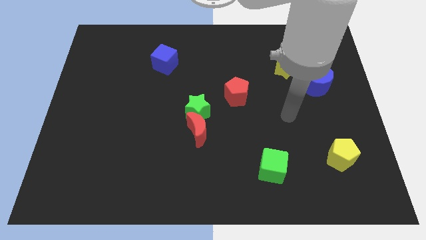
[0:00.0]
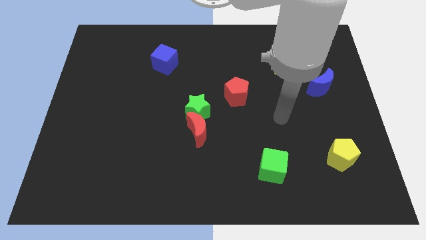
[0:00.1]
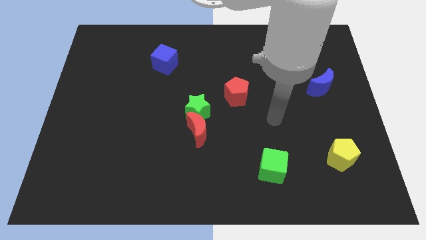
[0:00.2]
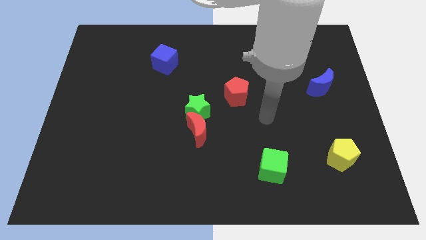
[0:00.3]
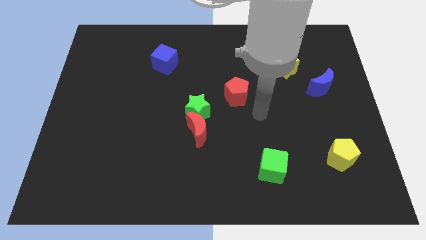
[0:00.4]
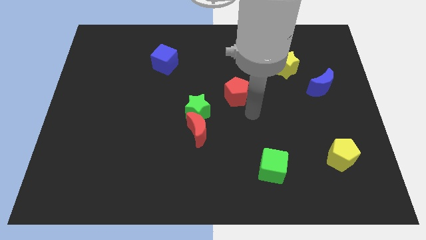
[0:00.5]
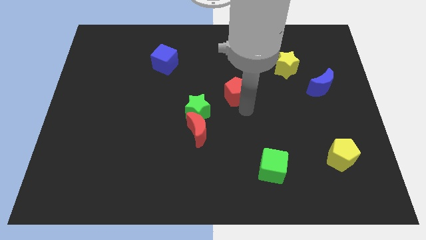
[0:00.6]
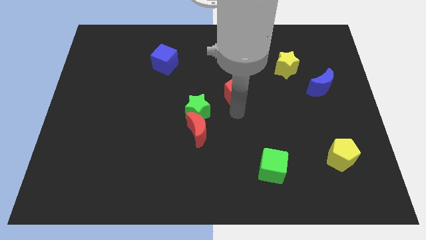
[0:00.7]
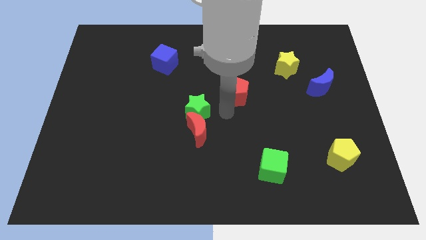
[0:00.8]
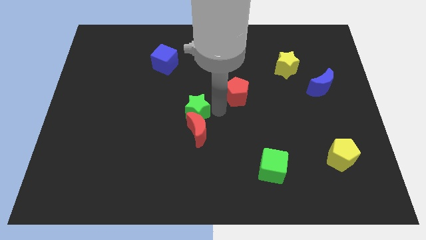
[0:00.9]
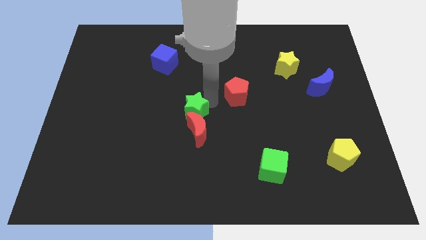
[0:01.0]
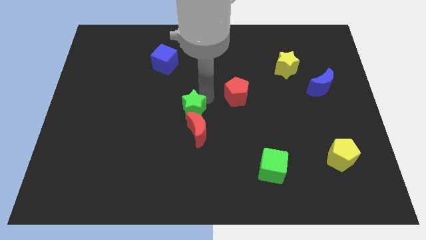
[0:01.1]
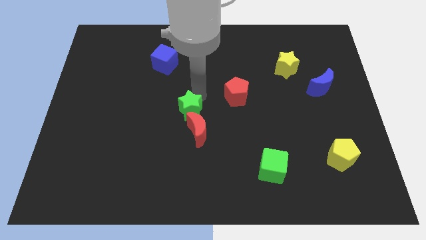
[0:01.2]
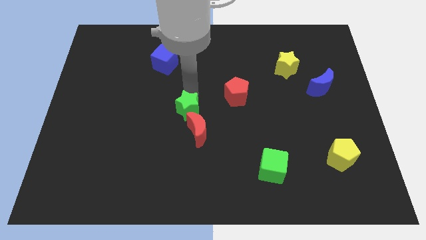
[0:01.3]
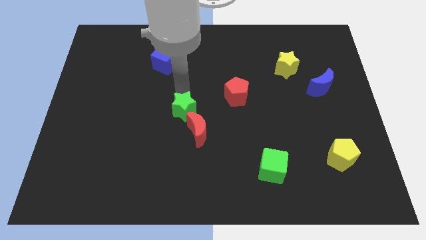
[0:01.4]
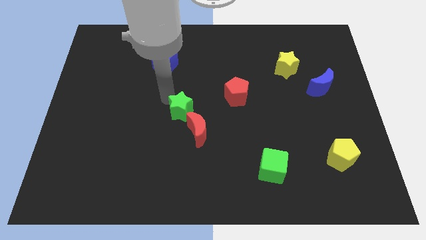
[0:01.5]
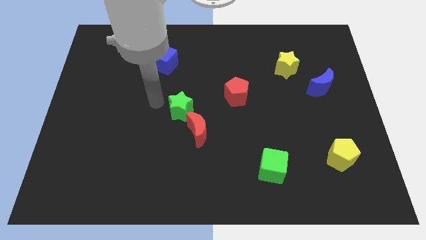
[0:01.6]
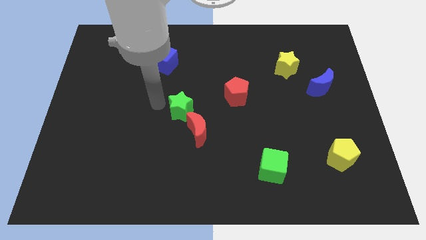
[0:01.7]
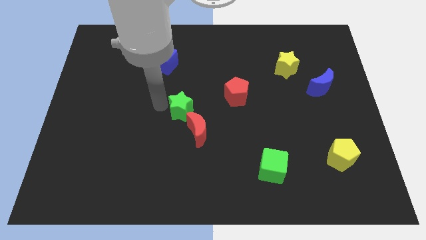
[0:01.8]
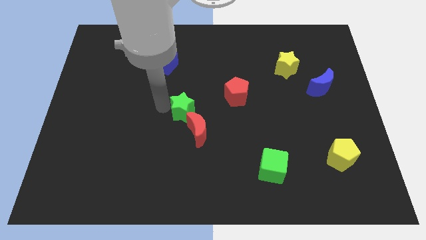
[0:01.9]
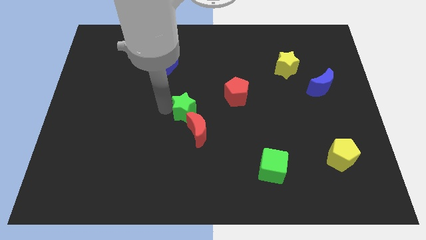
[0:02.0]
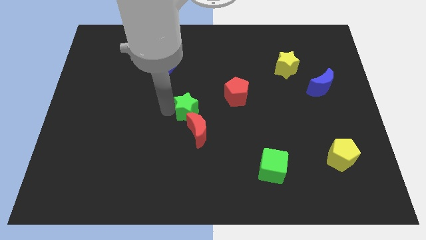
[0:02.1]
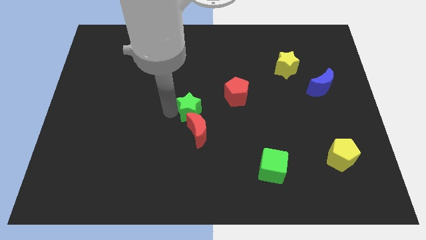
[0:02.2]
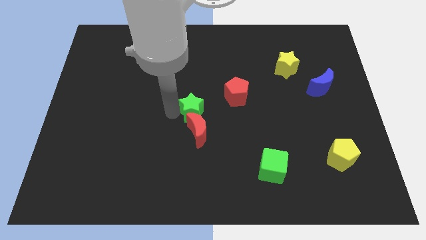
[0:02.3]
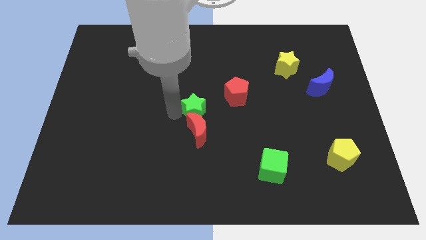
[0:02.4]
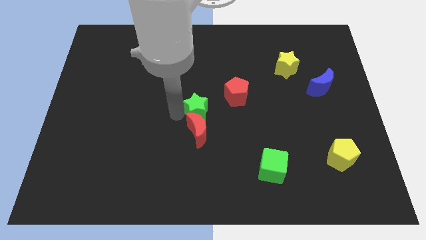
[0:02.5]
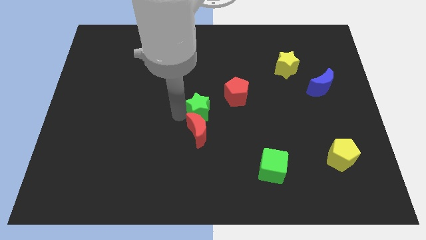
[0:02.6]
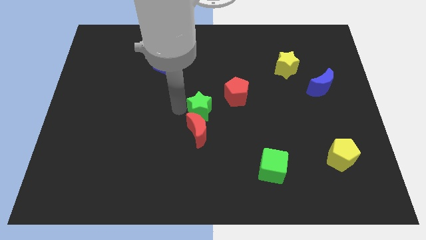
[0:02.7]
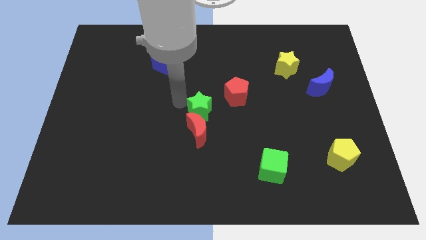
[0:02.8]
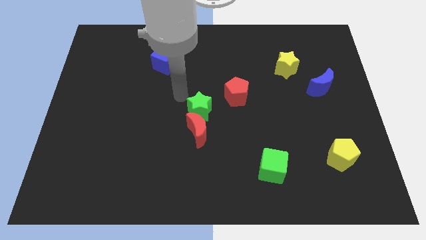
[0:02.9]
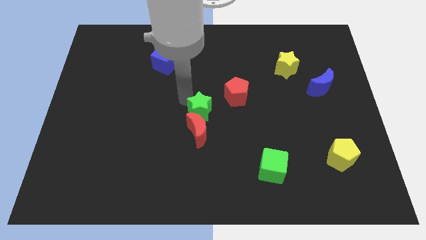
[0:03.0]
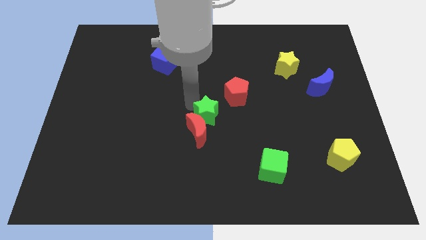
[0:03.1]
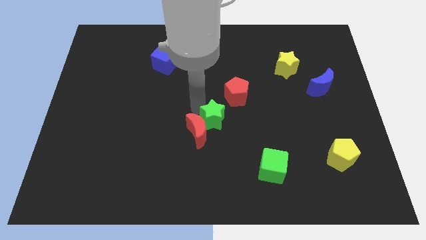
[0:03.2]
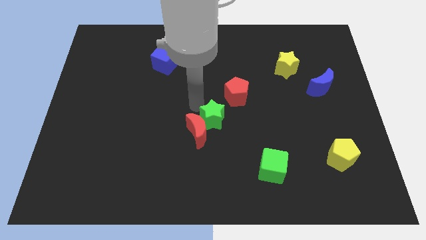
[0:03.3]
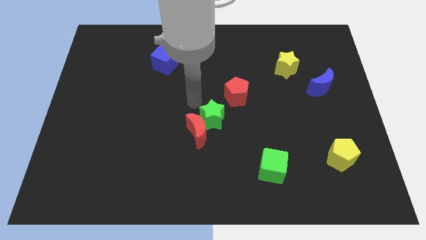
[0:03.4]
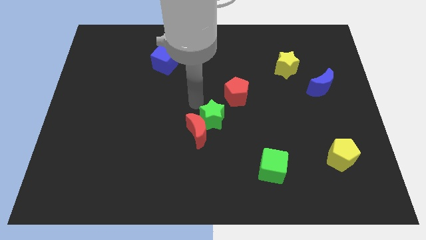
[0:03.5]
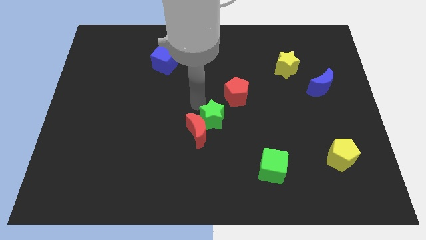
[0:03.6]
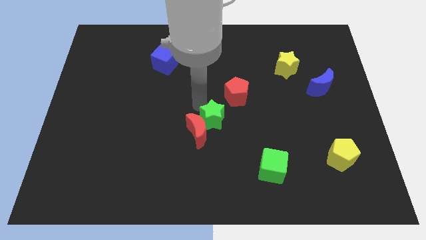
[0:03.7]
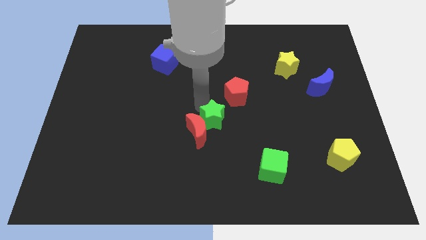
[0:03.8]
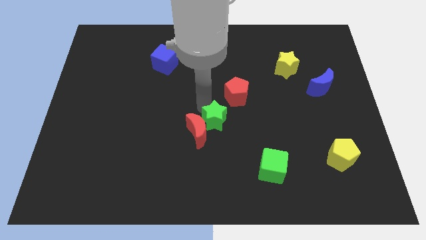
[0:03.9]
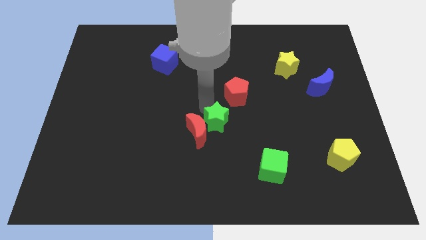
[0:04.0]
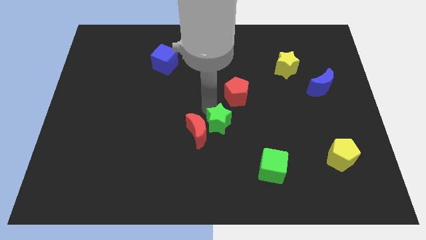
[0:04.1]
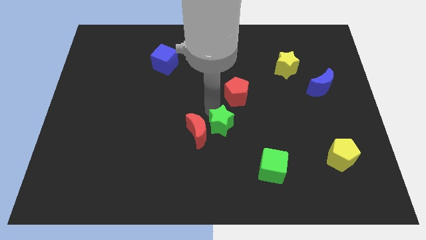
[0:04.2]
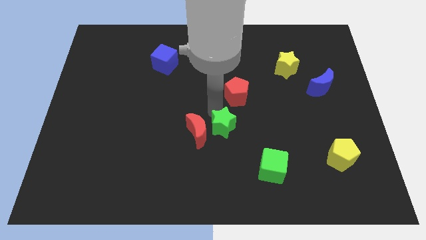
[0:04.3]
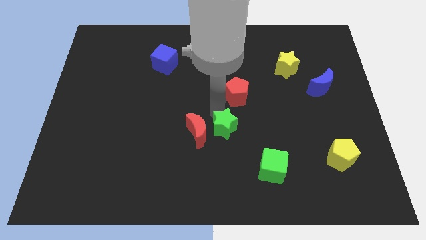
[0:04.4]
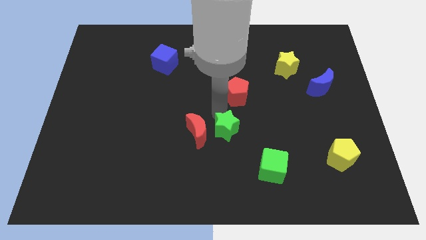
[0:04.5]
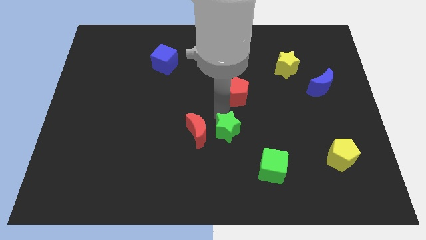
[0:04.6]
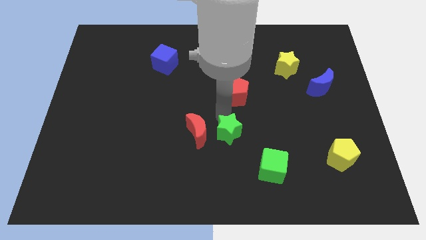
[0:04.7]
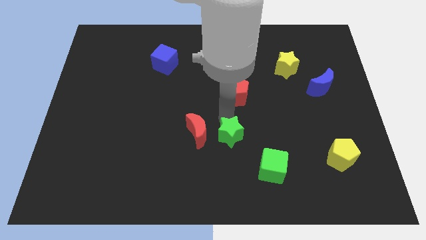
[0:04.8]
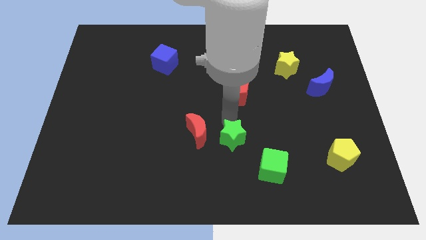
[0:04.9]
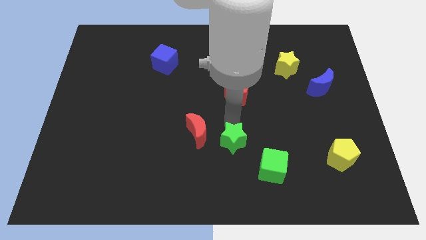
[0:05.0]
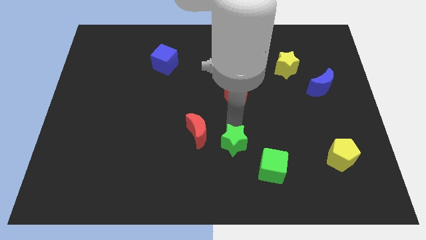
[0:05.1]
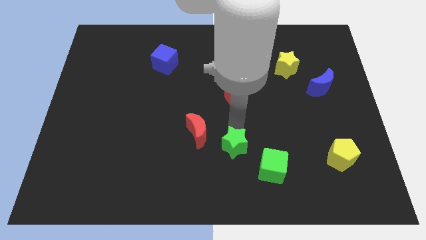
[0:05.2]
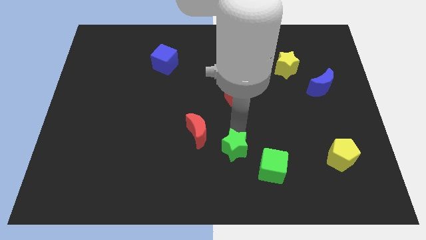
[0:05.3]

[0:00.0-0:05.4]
push the green star left of the green cube

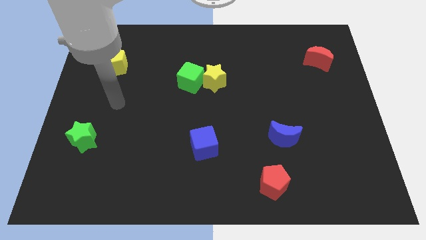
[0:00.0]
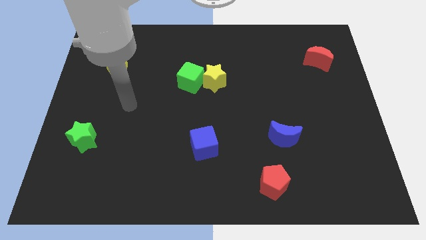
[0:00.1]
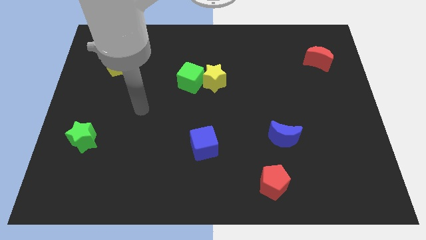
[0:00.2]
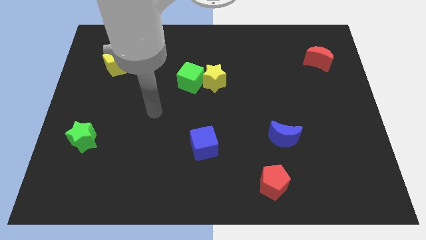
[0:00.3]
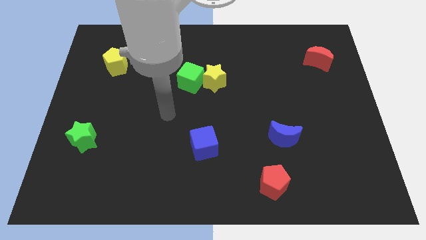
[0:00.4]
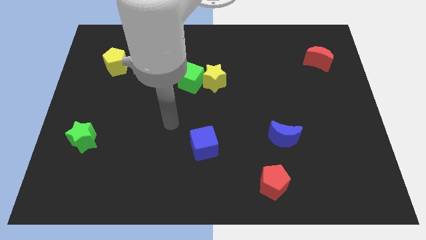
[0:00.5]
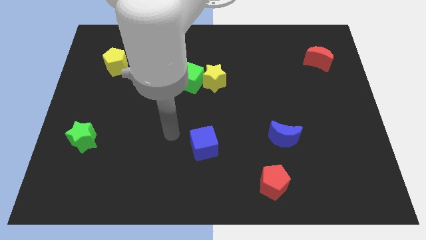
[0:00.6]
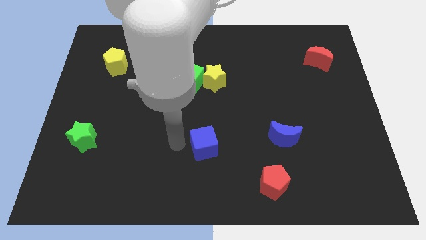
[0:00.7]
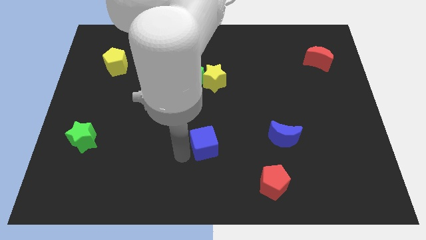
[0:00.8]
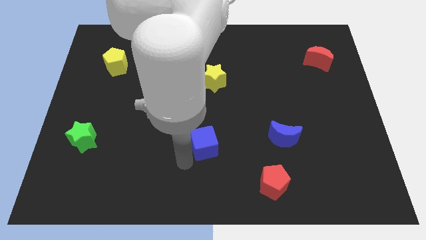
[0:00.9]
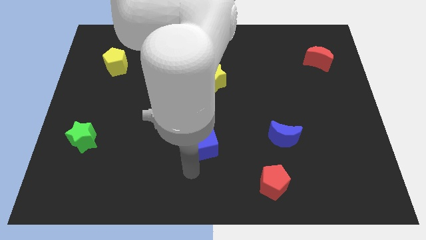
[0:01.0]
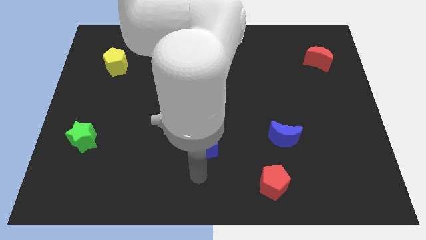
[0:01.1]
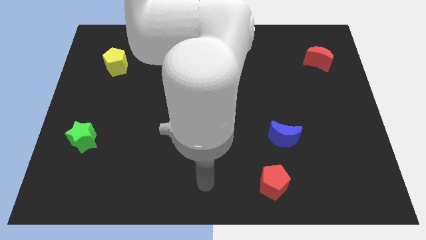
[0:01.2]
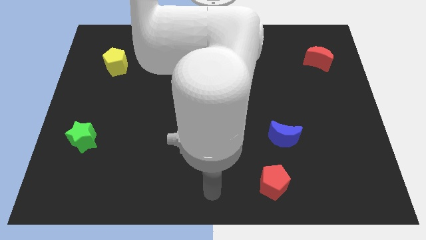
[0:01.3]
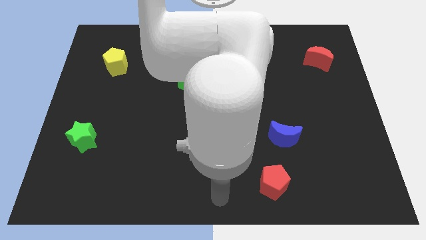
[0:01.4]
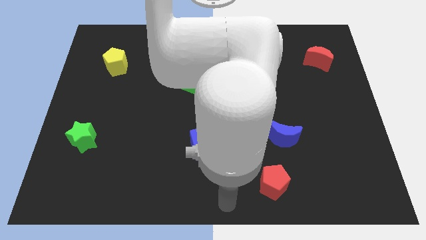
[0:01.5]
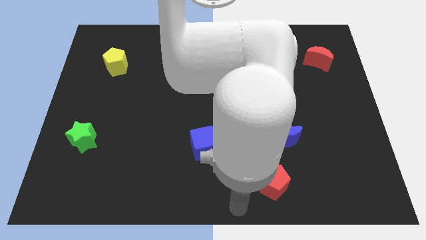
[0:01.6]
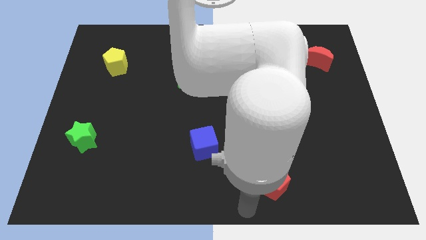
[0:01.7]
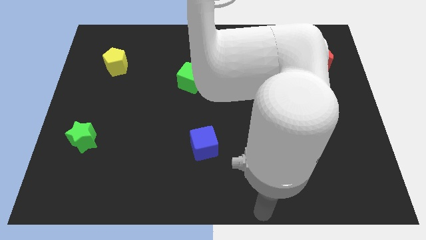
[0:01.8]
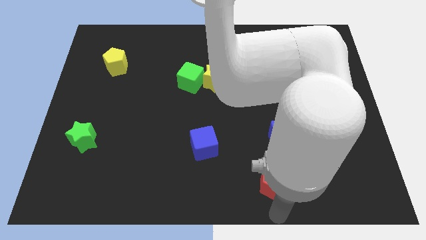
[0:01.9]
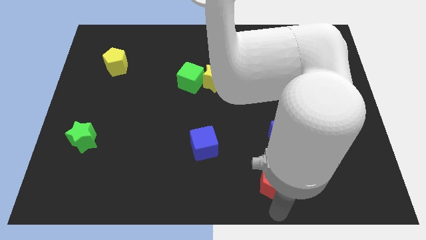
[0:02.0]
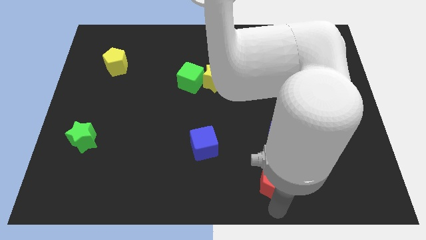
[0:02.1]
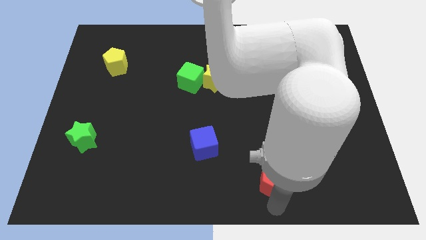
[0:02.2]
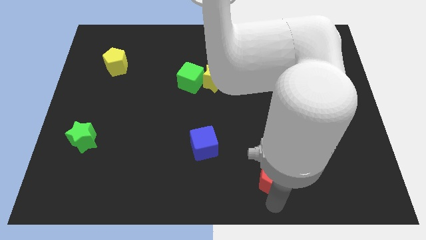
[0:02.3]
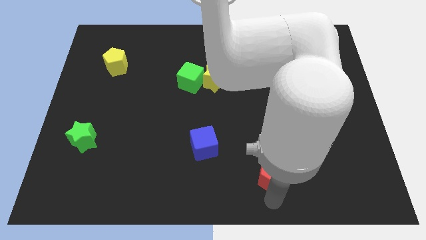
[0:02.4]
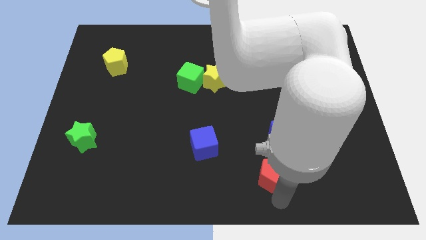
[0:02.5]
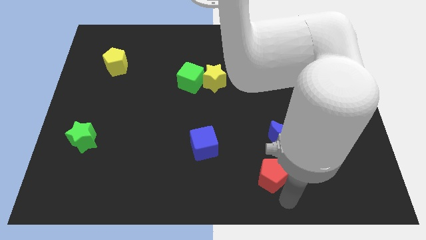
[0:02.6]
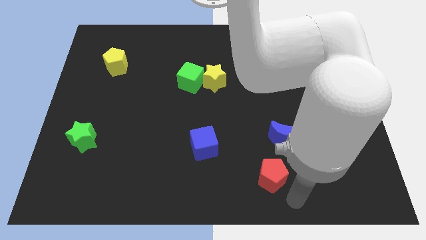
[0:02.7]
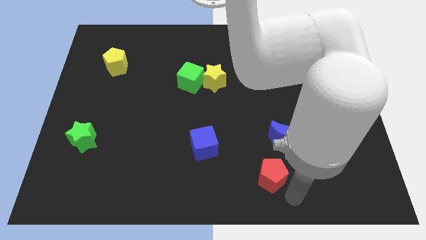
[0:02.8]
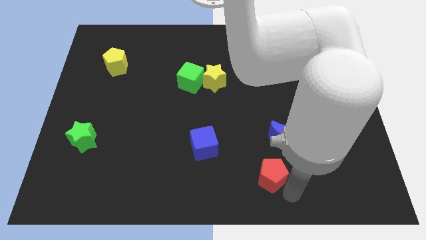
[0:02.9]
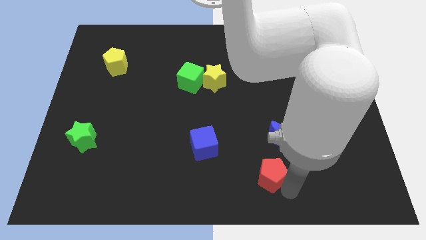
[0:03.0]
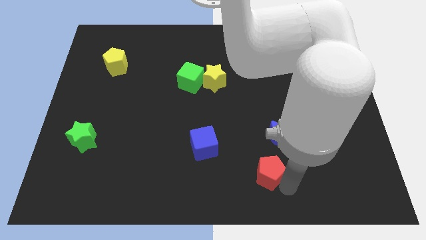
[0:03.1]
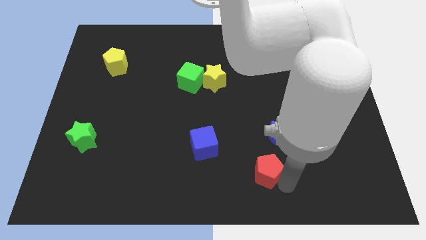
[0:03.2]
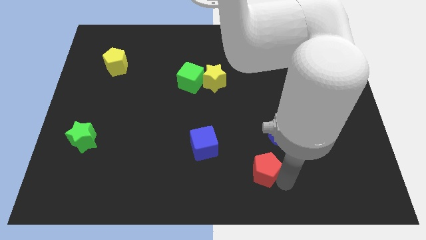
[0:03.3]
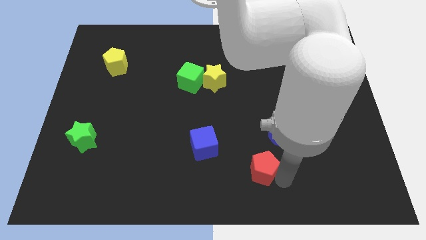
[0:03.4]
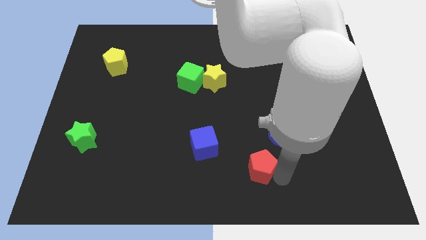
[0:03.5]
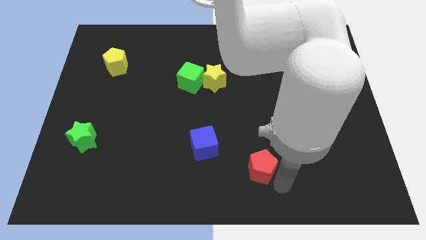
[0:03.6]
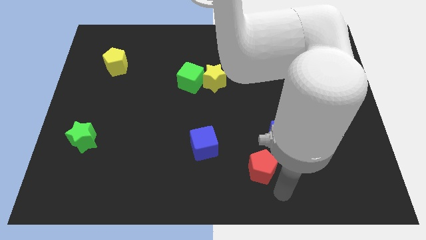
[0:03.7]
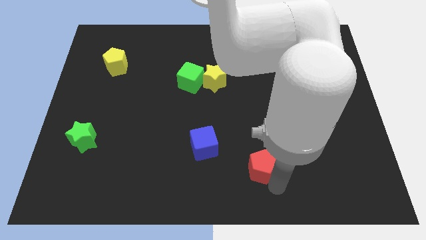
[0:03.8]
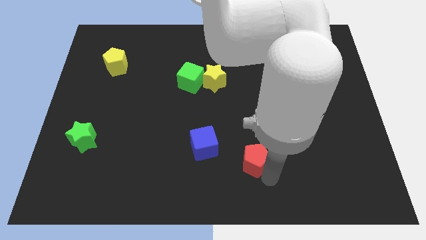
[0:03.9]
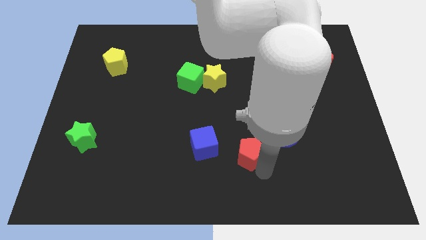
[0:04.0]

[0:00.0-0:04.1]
push the red pentagon left of the blue moon
